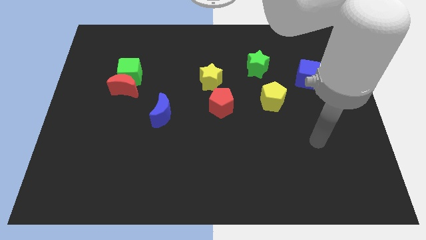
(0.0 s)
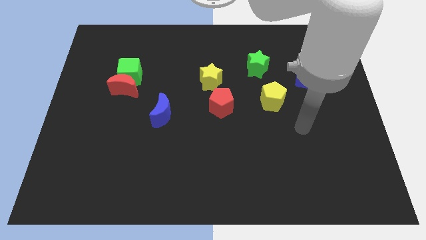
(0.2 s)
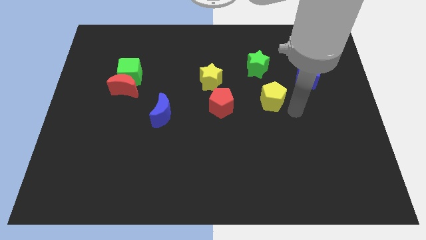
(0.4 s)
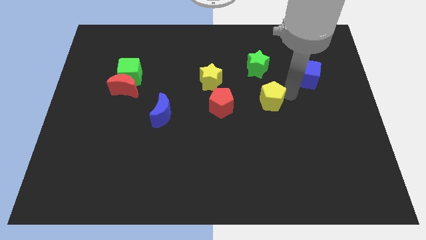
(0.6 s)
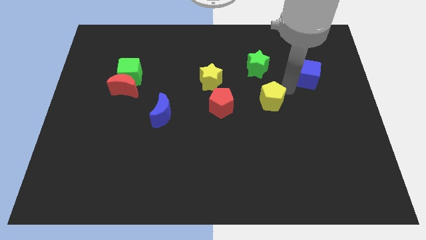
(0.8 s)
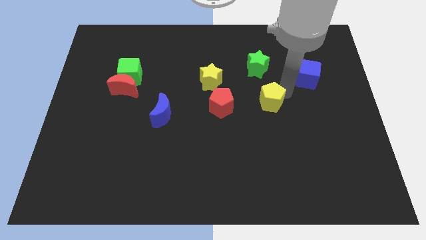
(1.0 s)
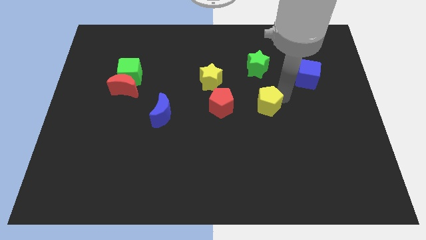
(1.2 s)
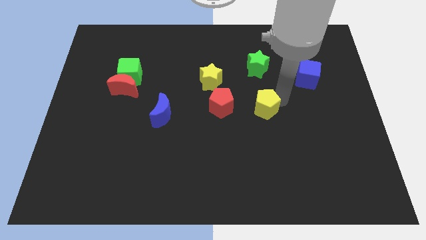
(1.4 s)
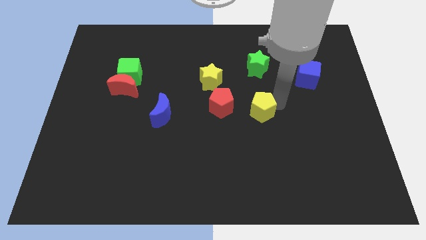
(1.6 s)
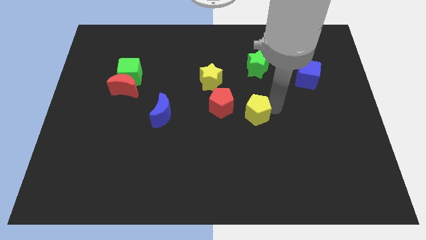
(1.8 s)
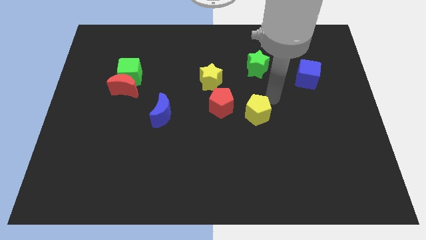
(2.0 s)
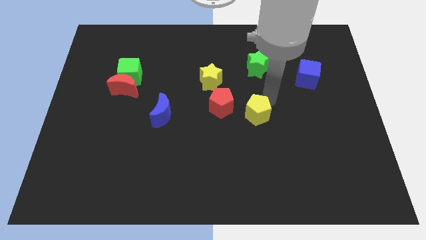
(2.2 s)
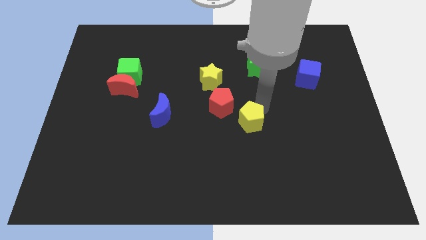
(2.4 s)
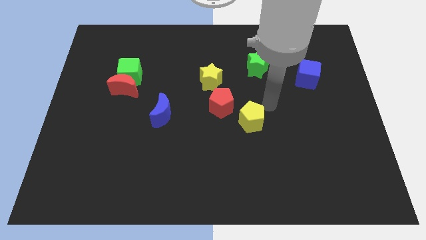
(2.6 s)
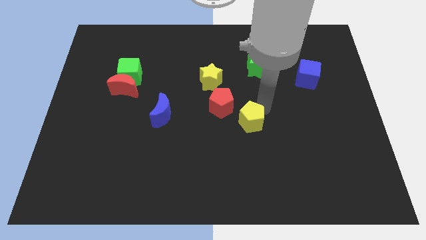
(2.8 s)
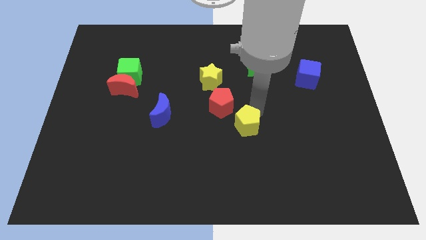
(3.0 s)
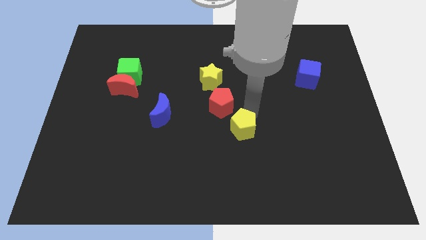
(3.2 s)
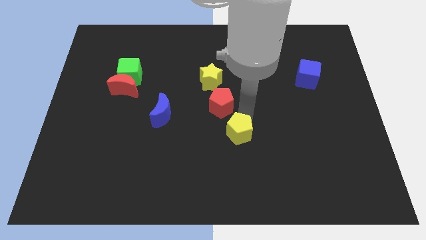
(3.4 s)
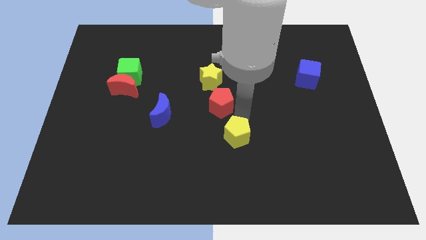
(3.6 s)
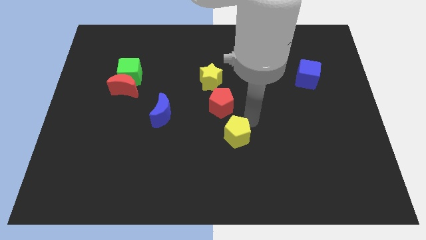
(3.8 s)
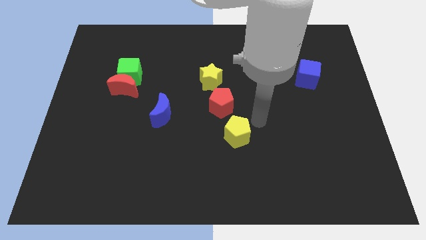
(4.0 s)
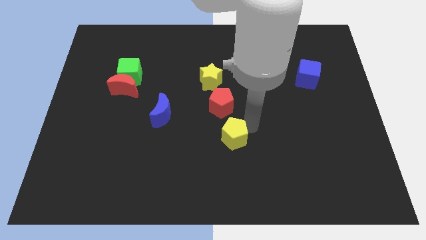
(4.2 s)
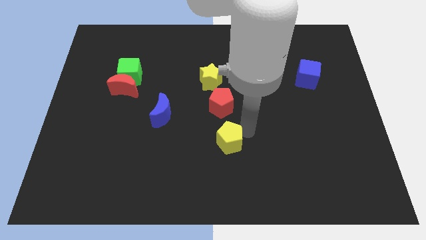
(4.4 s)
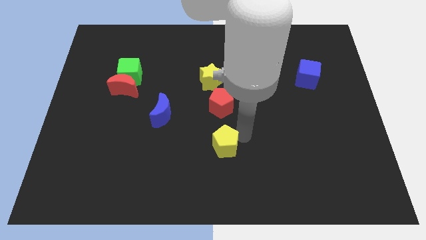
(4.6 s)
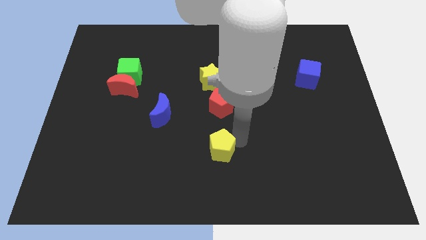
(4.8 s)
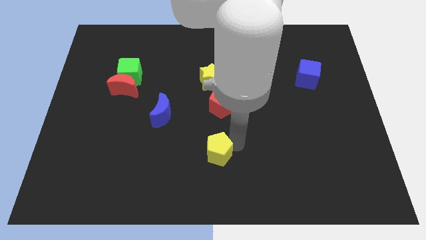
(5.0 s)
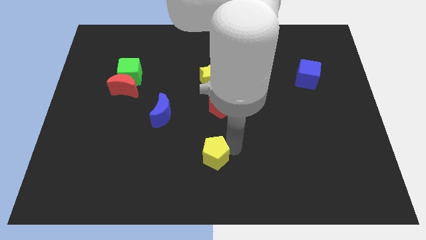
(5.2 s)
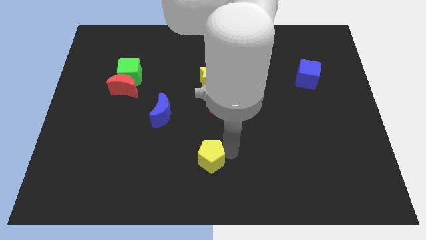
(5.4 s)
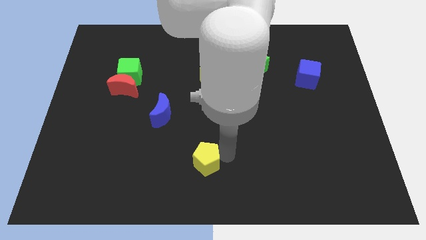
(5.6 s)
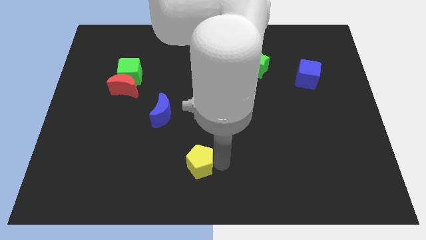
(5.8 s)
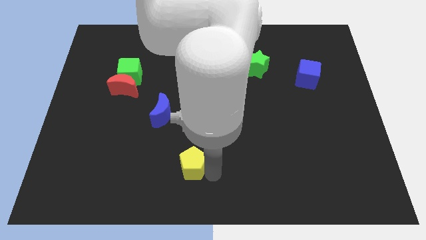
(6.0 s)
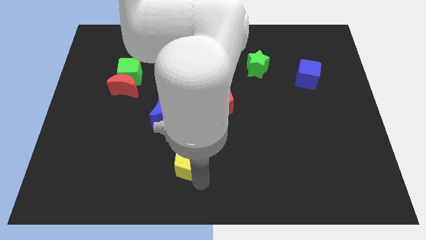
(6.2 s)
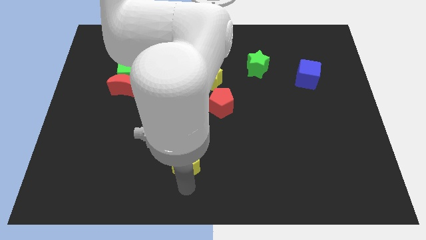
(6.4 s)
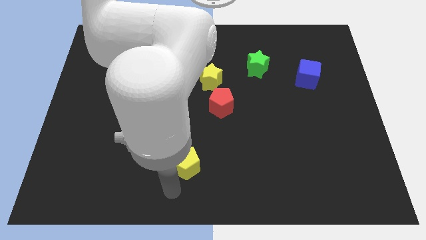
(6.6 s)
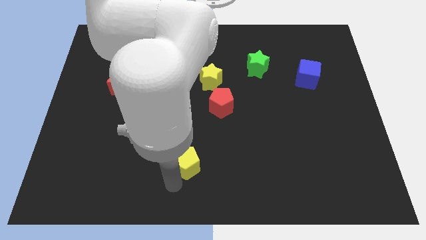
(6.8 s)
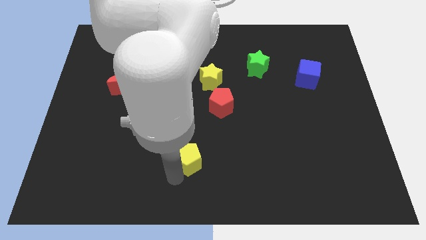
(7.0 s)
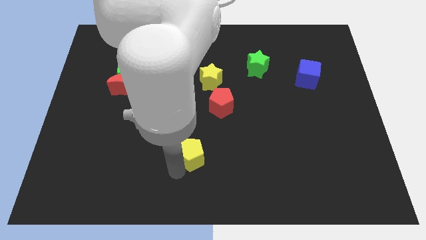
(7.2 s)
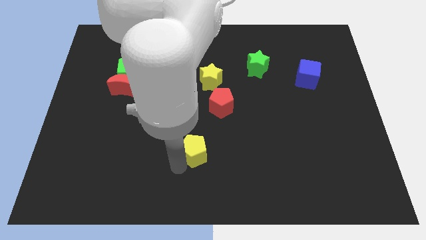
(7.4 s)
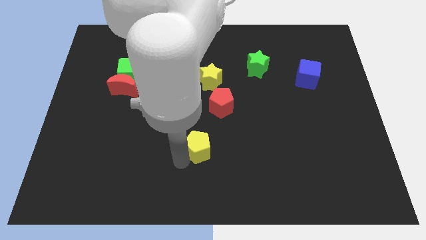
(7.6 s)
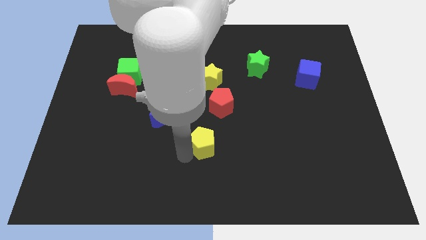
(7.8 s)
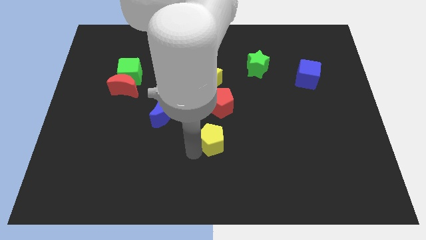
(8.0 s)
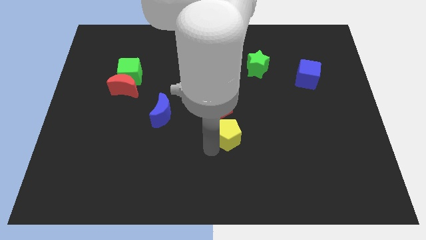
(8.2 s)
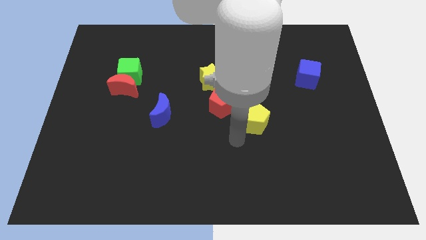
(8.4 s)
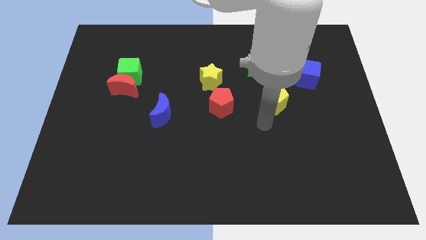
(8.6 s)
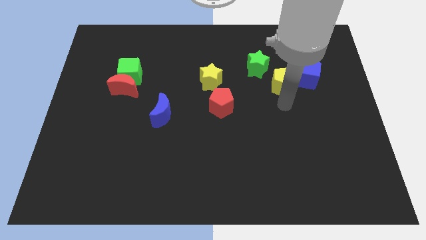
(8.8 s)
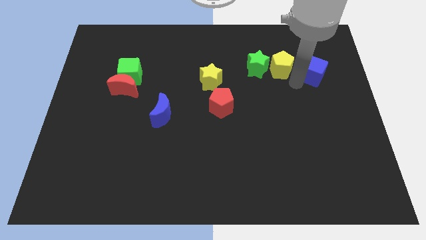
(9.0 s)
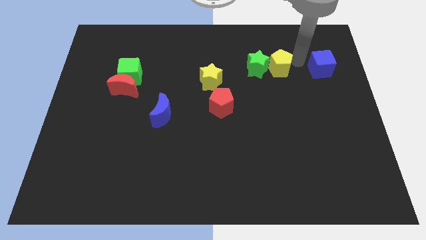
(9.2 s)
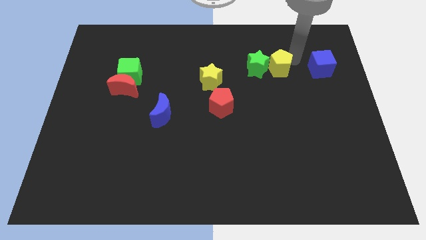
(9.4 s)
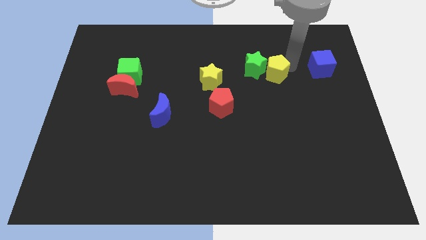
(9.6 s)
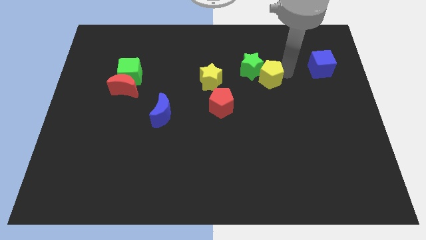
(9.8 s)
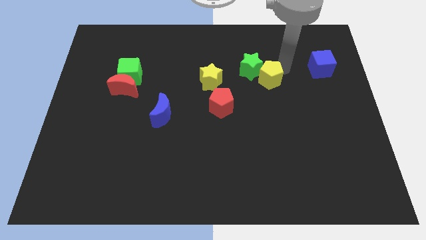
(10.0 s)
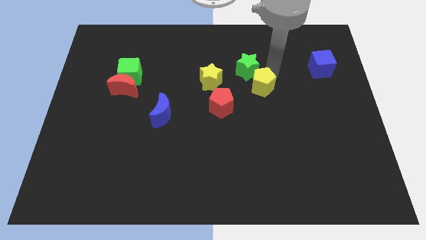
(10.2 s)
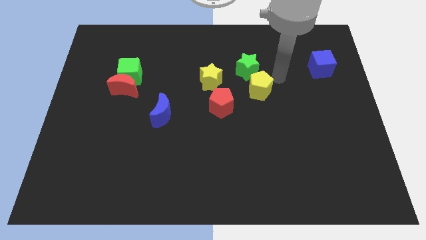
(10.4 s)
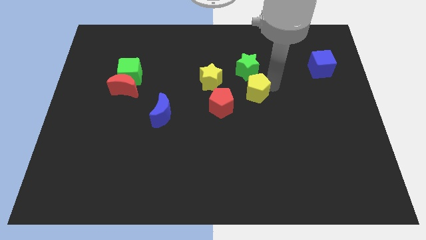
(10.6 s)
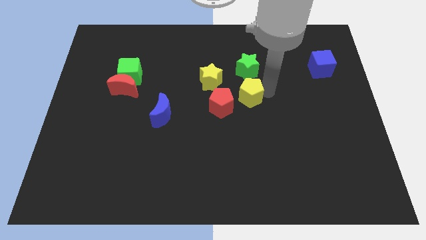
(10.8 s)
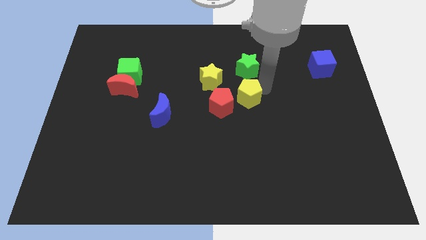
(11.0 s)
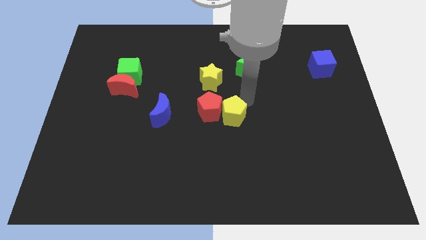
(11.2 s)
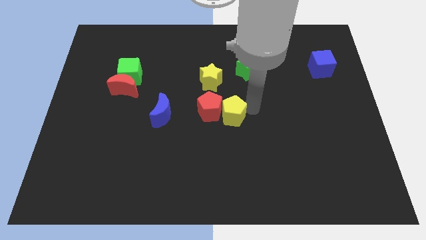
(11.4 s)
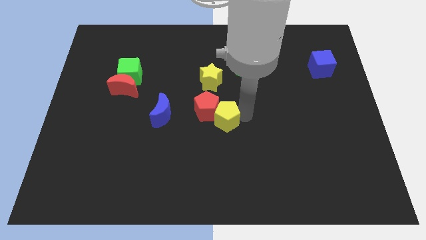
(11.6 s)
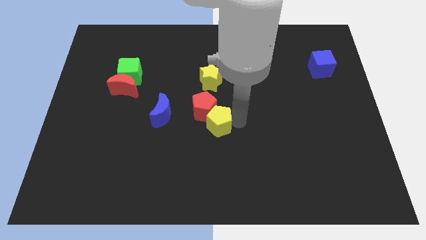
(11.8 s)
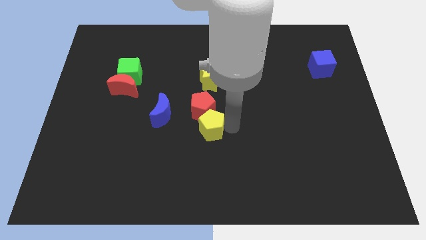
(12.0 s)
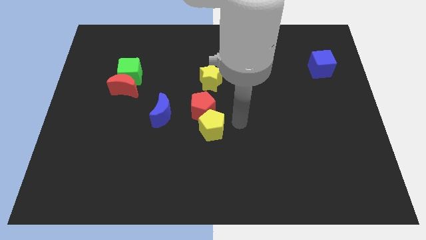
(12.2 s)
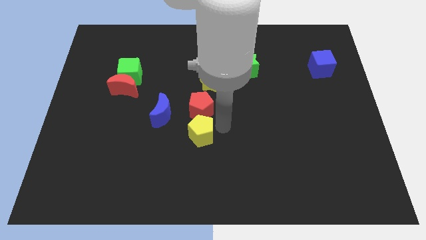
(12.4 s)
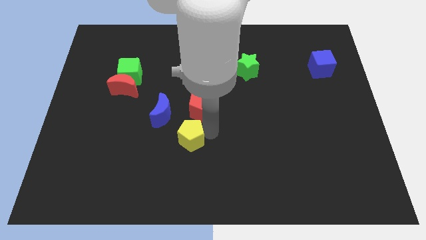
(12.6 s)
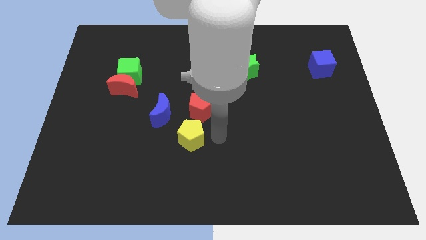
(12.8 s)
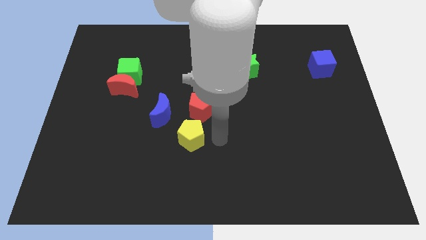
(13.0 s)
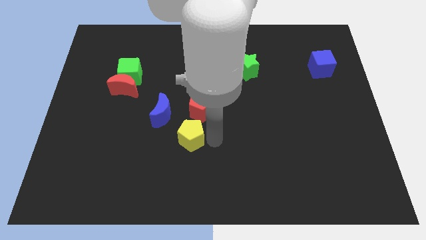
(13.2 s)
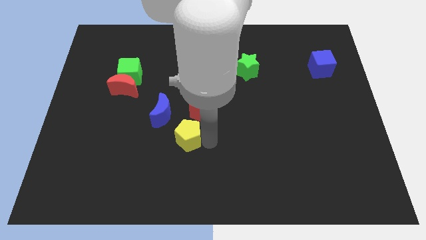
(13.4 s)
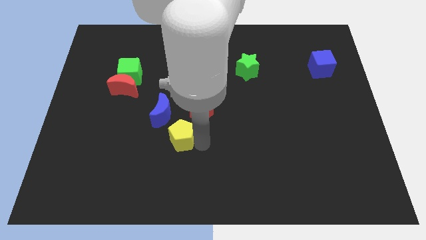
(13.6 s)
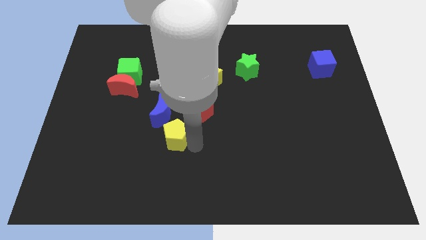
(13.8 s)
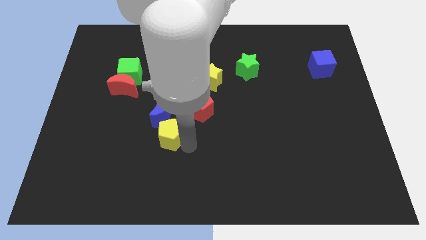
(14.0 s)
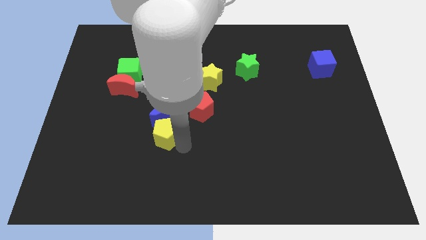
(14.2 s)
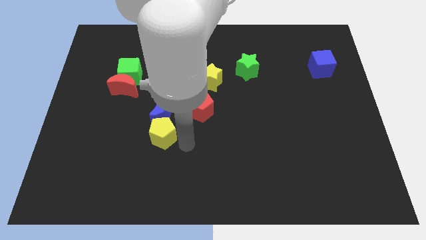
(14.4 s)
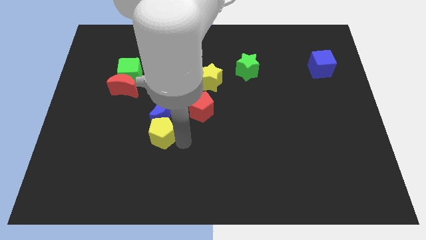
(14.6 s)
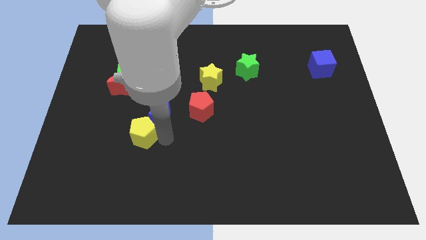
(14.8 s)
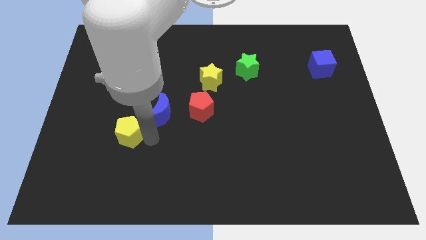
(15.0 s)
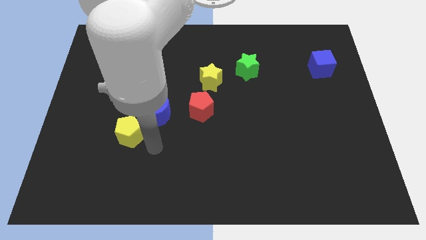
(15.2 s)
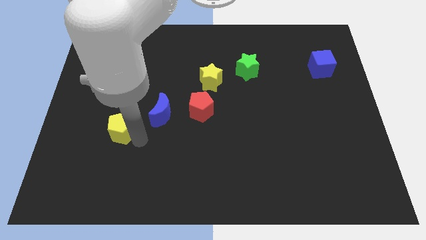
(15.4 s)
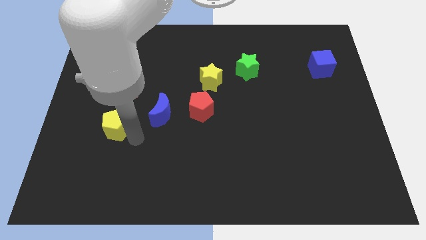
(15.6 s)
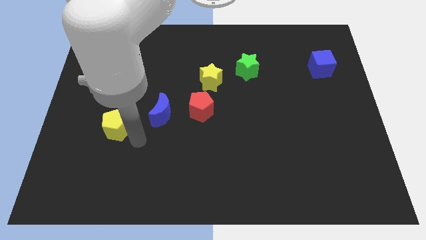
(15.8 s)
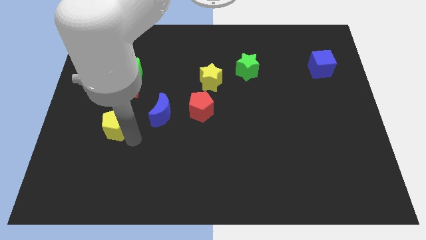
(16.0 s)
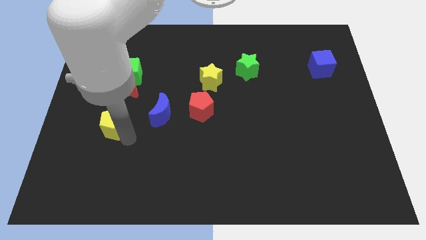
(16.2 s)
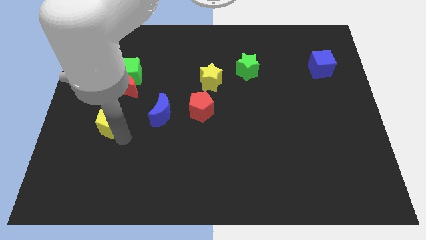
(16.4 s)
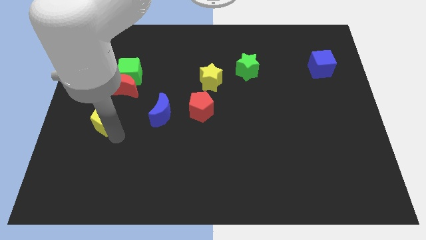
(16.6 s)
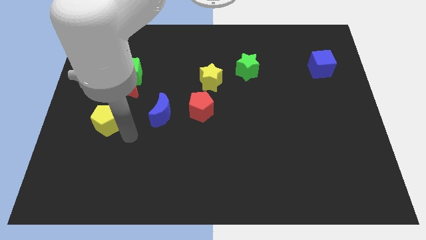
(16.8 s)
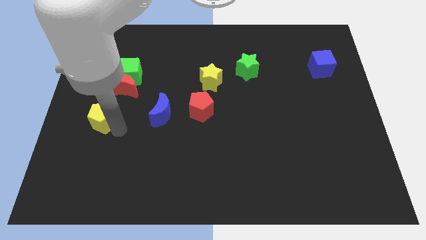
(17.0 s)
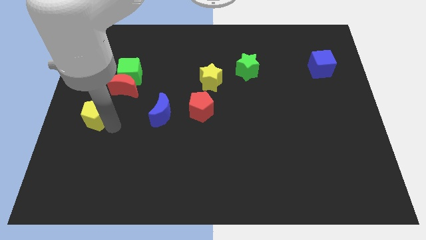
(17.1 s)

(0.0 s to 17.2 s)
move the yellow pentagon to the center left
